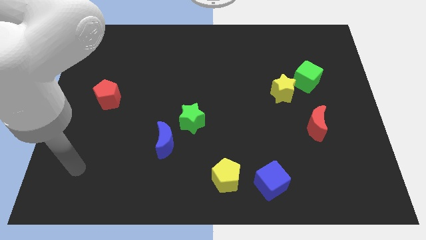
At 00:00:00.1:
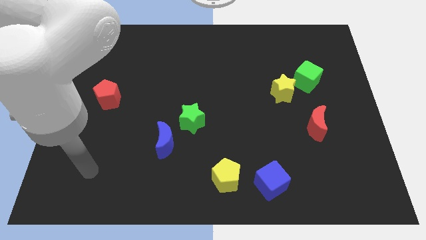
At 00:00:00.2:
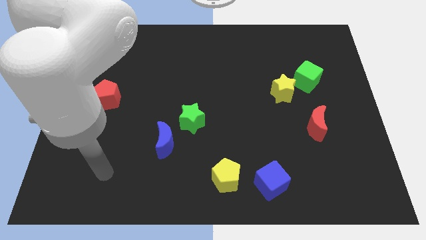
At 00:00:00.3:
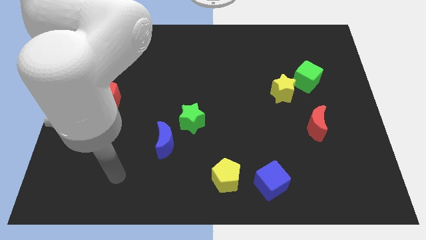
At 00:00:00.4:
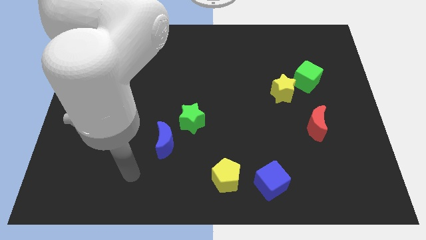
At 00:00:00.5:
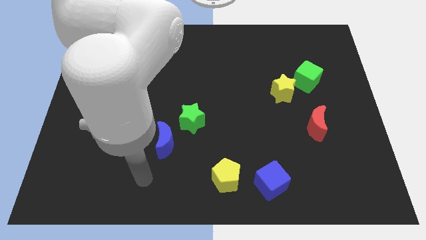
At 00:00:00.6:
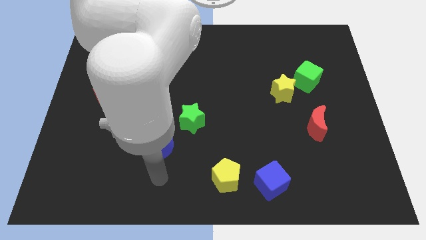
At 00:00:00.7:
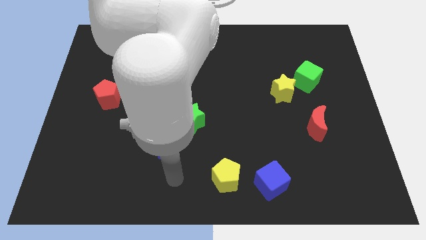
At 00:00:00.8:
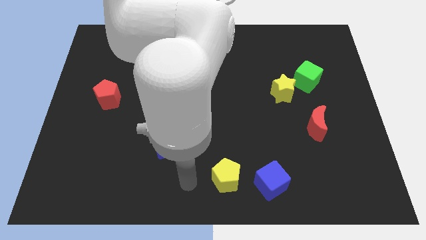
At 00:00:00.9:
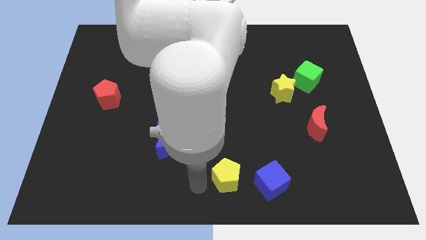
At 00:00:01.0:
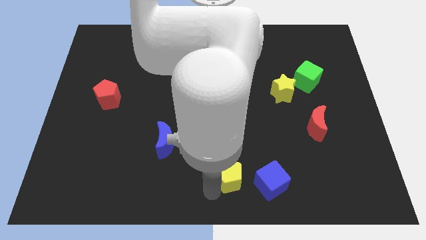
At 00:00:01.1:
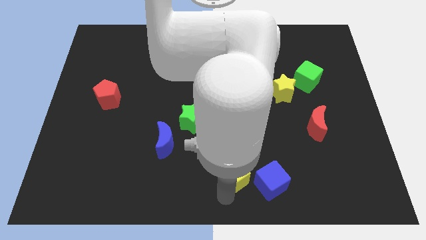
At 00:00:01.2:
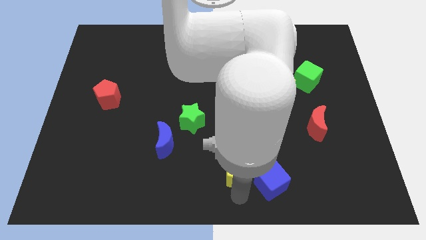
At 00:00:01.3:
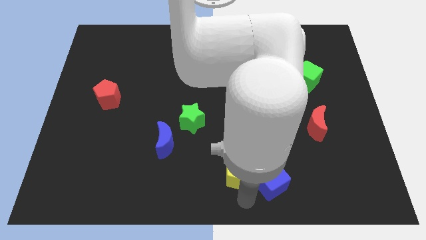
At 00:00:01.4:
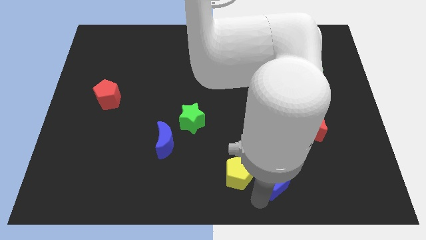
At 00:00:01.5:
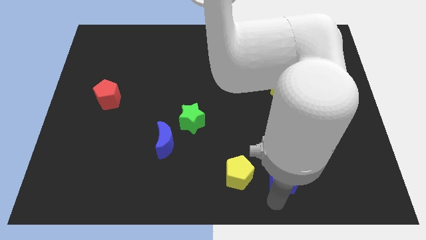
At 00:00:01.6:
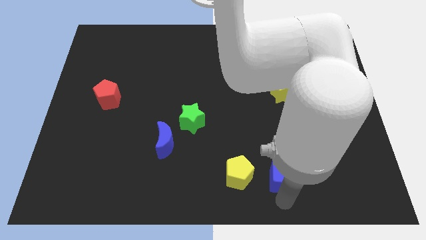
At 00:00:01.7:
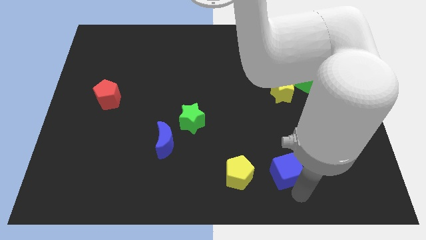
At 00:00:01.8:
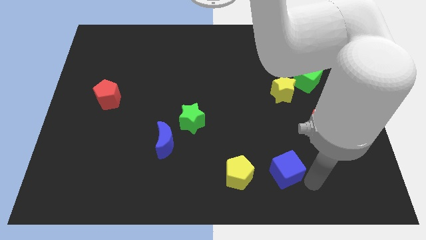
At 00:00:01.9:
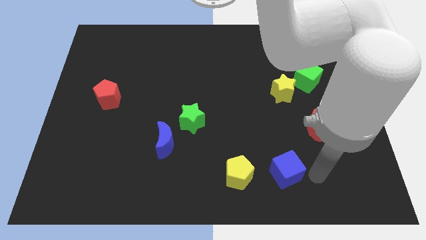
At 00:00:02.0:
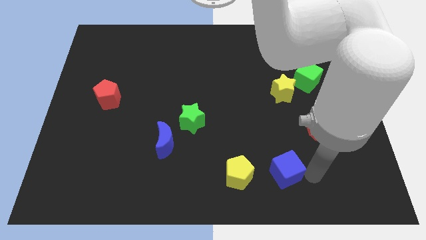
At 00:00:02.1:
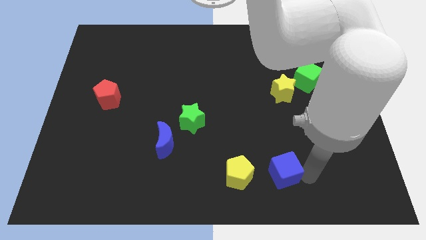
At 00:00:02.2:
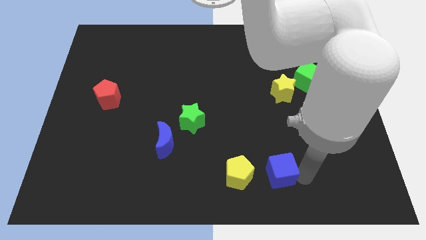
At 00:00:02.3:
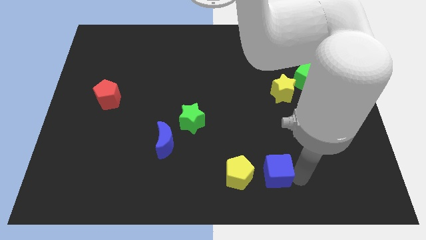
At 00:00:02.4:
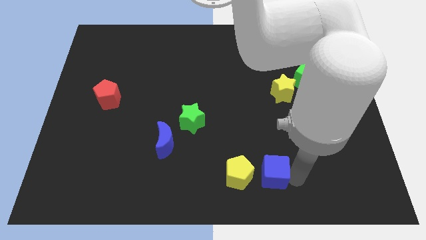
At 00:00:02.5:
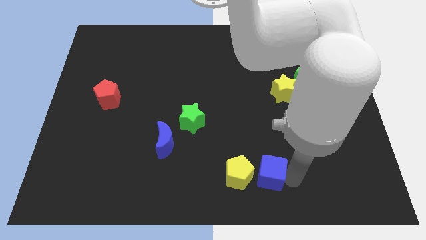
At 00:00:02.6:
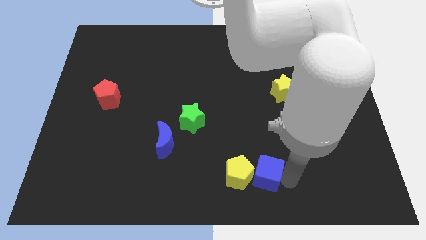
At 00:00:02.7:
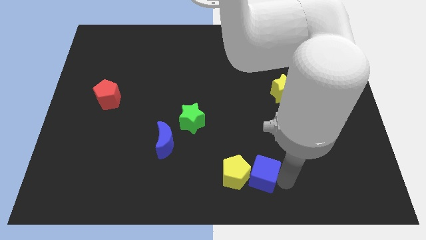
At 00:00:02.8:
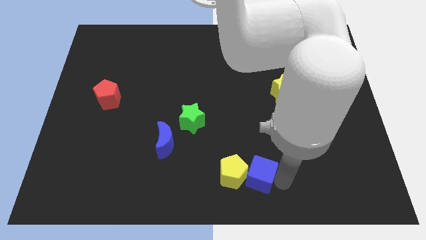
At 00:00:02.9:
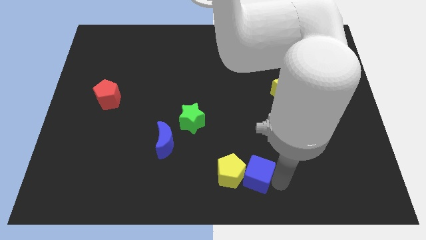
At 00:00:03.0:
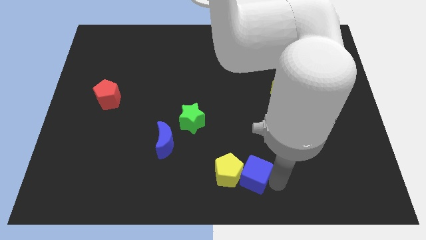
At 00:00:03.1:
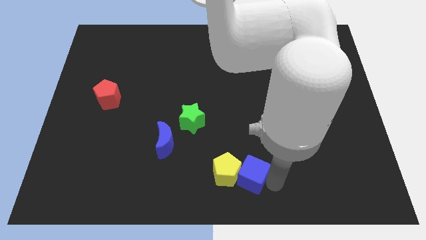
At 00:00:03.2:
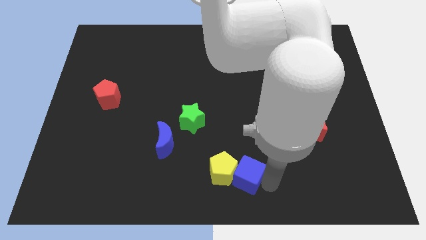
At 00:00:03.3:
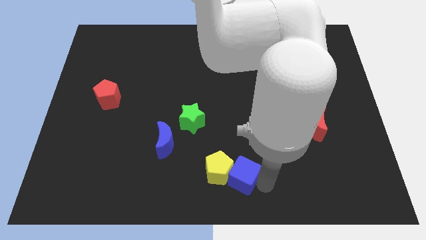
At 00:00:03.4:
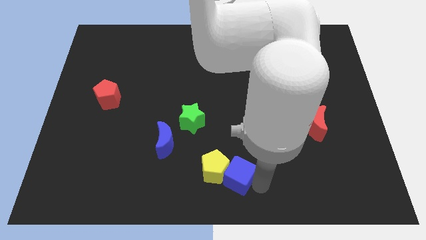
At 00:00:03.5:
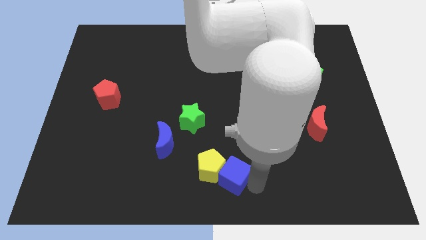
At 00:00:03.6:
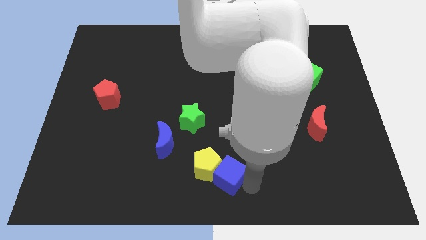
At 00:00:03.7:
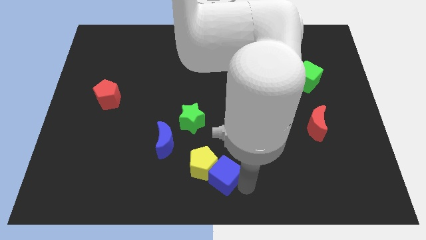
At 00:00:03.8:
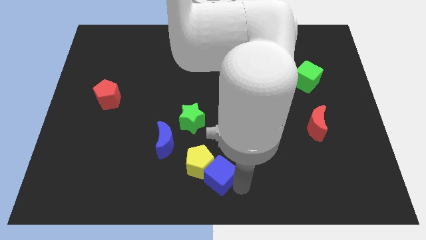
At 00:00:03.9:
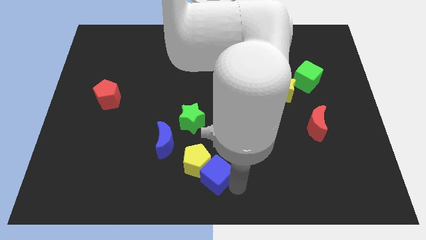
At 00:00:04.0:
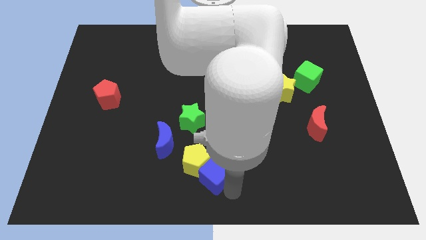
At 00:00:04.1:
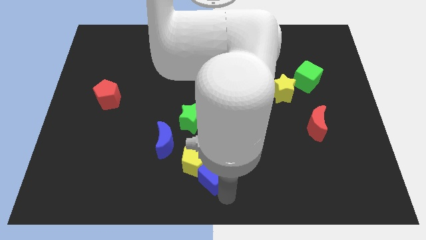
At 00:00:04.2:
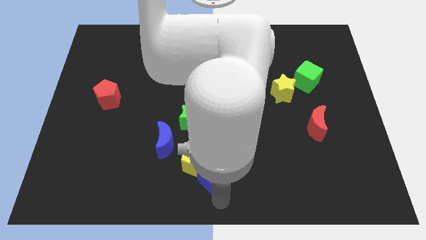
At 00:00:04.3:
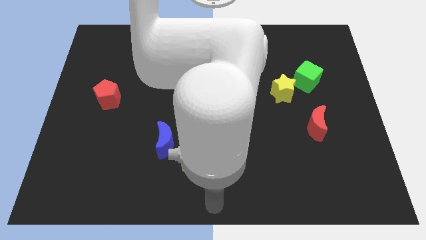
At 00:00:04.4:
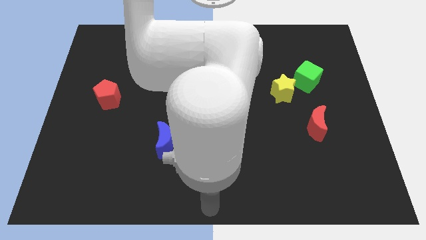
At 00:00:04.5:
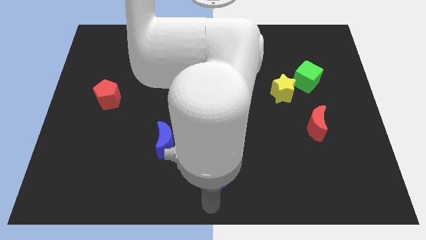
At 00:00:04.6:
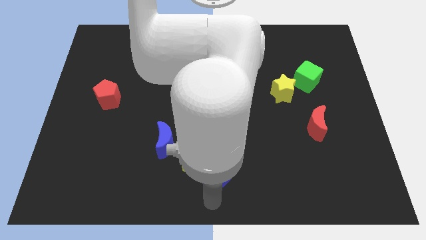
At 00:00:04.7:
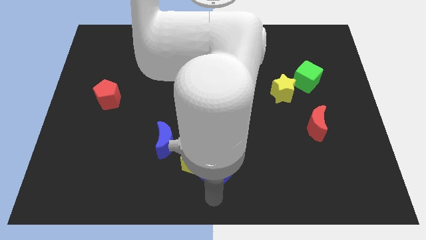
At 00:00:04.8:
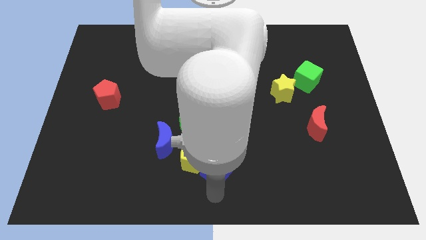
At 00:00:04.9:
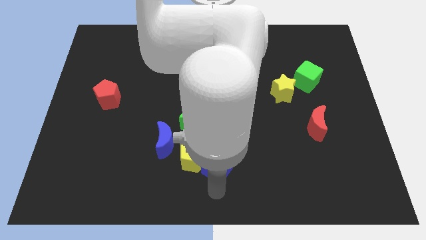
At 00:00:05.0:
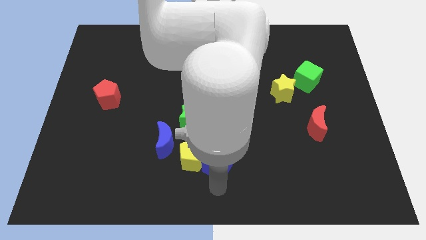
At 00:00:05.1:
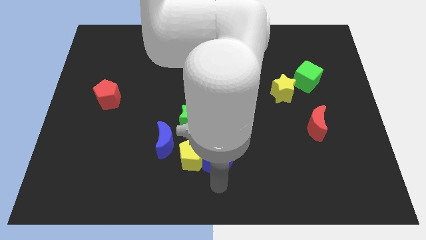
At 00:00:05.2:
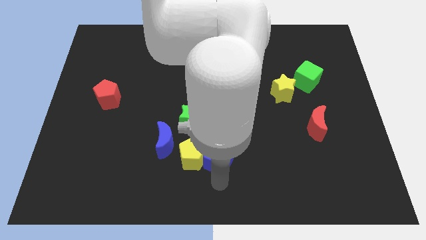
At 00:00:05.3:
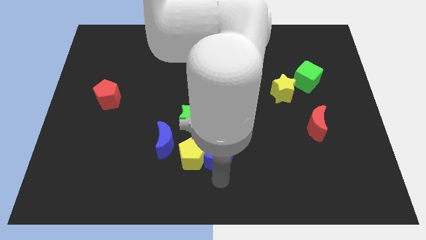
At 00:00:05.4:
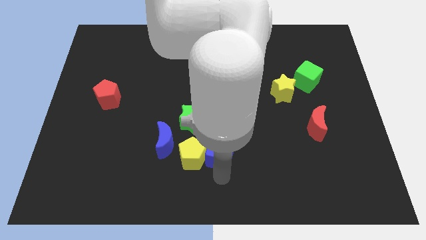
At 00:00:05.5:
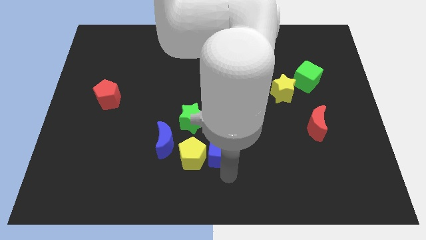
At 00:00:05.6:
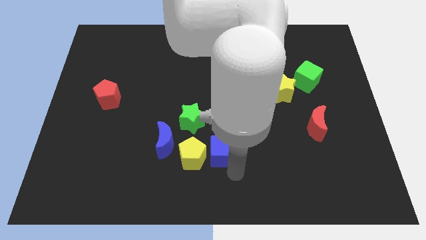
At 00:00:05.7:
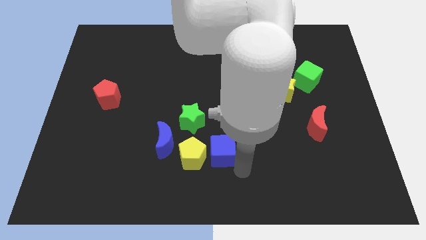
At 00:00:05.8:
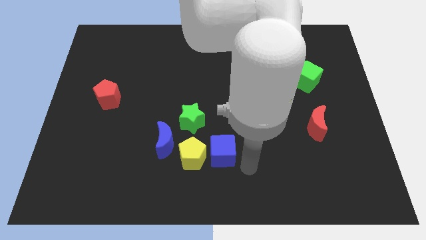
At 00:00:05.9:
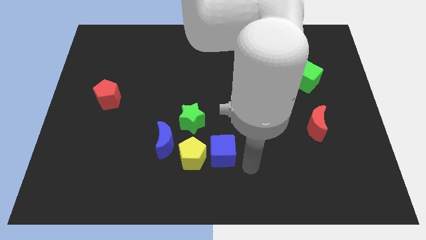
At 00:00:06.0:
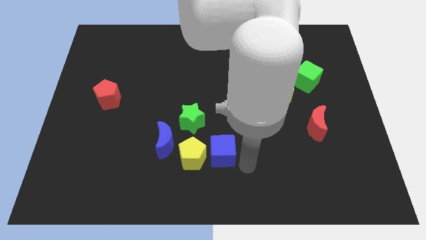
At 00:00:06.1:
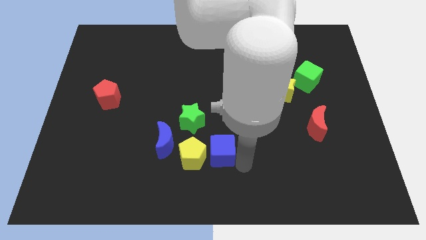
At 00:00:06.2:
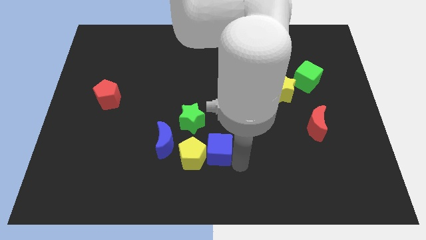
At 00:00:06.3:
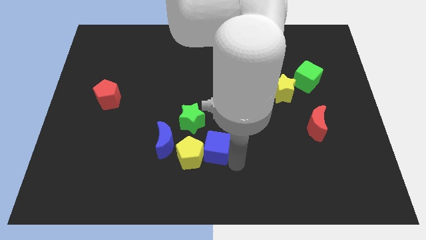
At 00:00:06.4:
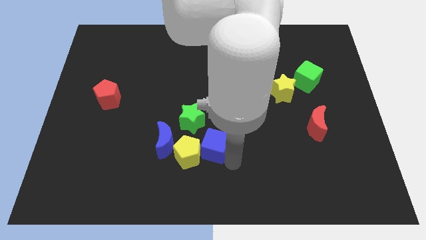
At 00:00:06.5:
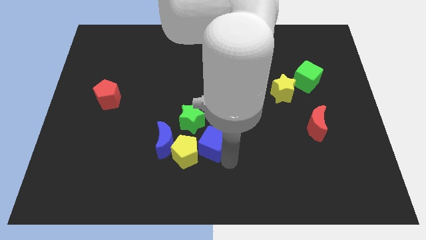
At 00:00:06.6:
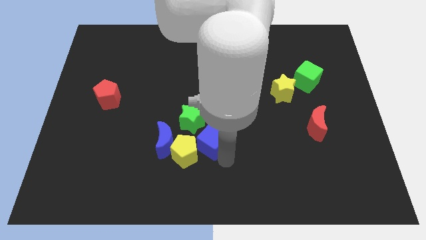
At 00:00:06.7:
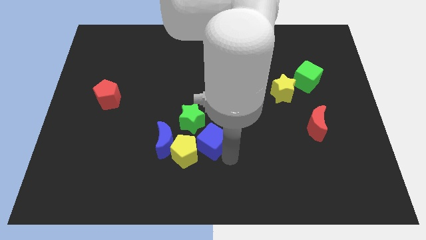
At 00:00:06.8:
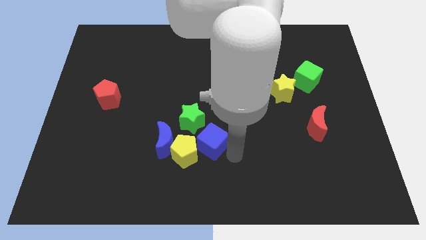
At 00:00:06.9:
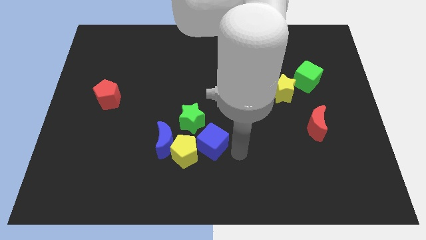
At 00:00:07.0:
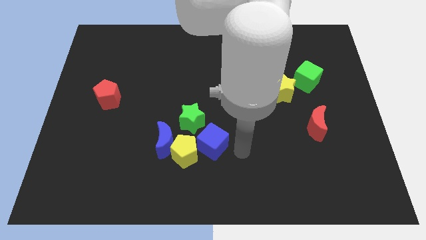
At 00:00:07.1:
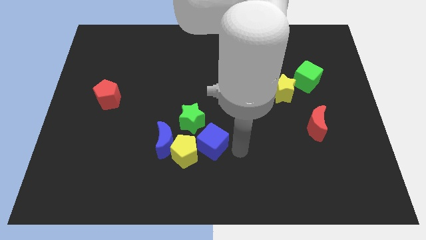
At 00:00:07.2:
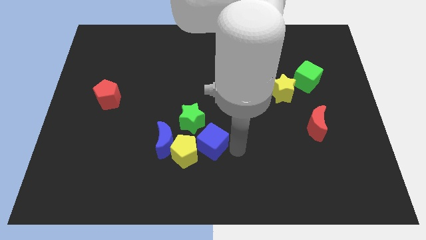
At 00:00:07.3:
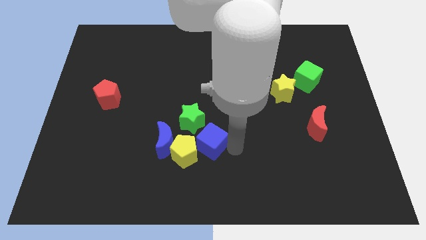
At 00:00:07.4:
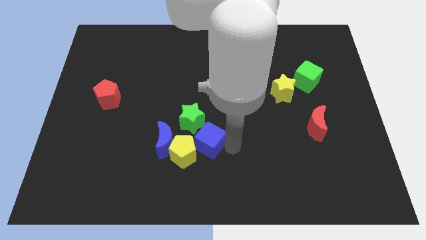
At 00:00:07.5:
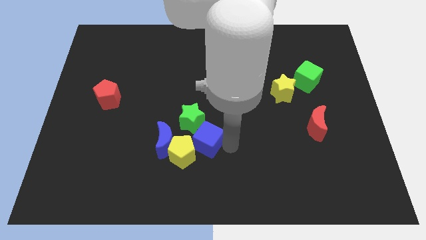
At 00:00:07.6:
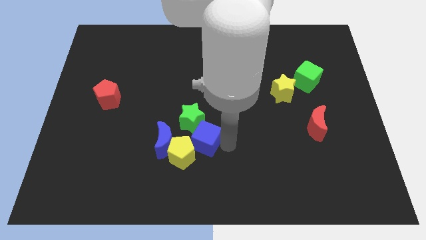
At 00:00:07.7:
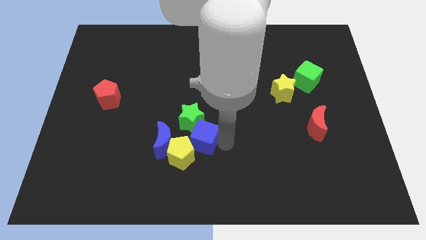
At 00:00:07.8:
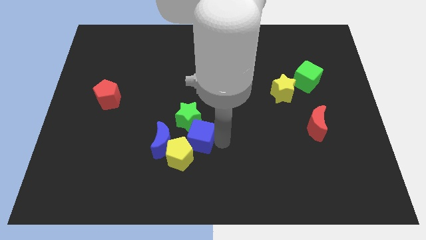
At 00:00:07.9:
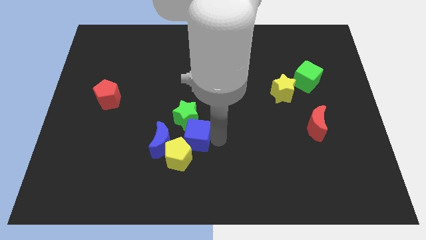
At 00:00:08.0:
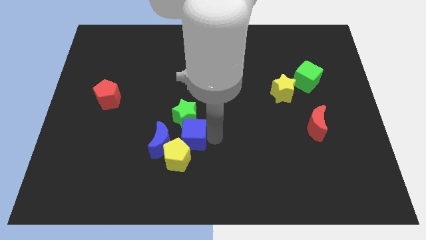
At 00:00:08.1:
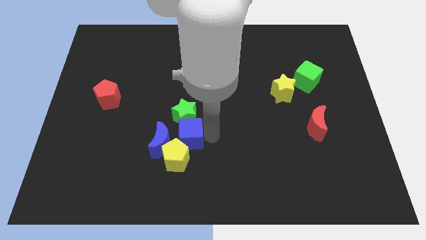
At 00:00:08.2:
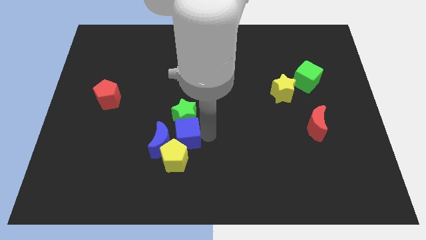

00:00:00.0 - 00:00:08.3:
push the blue cube close to the blue moon
